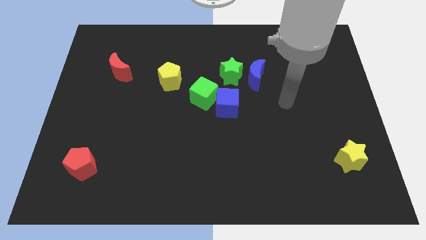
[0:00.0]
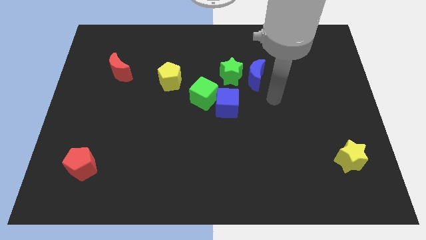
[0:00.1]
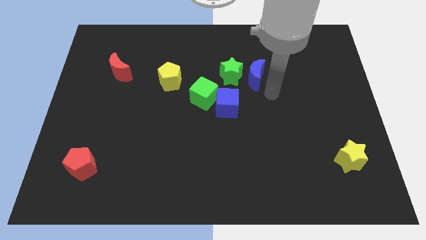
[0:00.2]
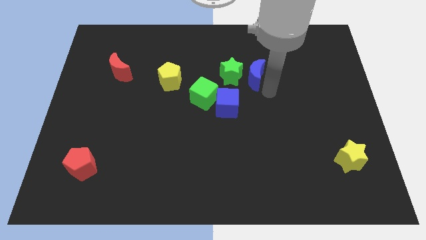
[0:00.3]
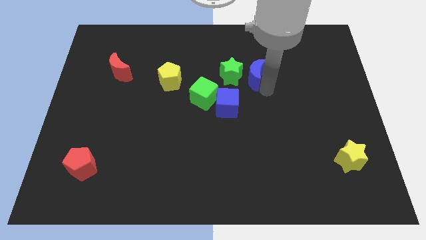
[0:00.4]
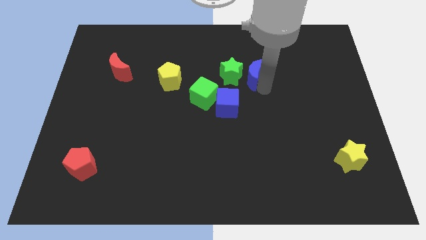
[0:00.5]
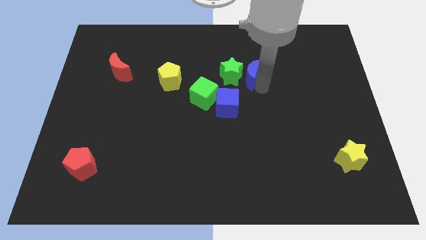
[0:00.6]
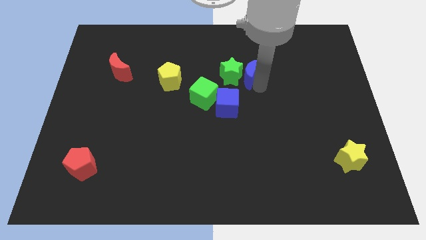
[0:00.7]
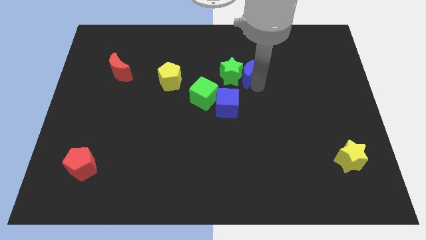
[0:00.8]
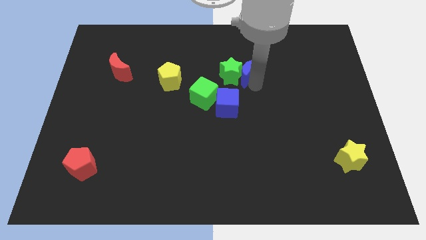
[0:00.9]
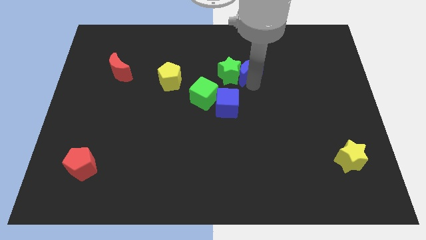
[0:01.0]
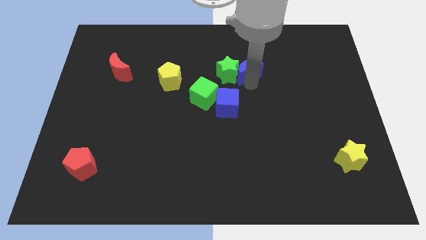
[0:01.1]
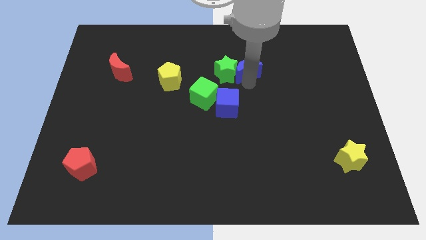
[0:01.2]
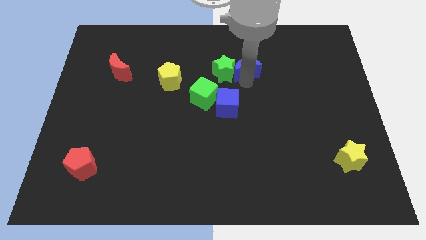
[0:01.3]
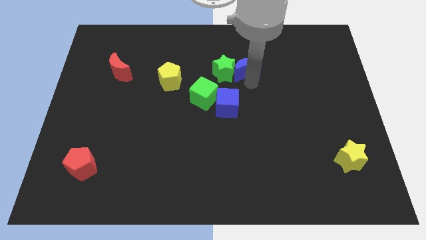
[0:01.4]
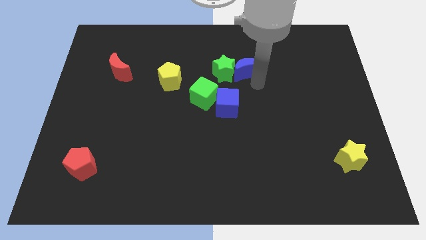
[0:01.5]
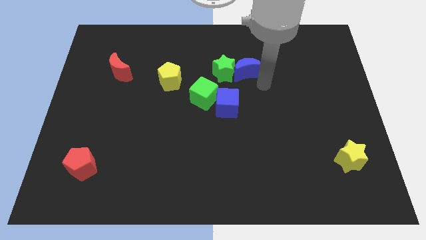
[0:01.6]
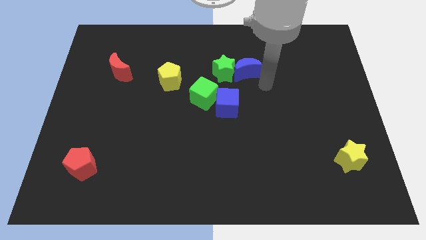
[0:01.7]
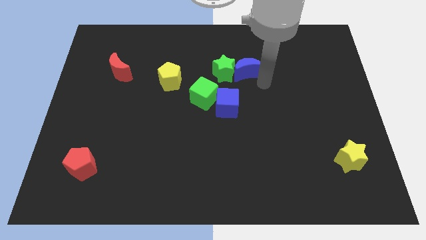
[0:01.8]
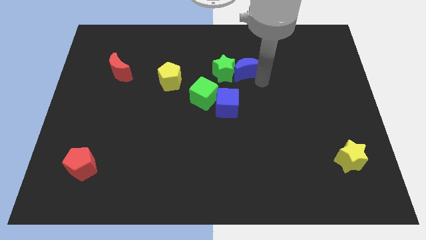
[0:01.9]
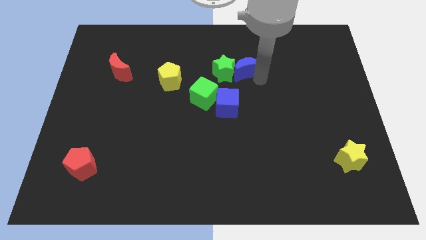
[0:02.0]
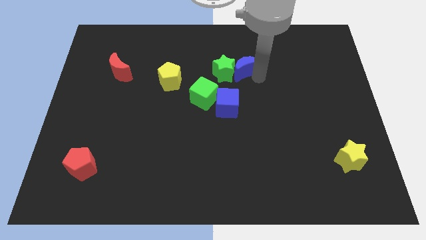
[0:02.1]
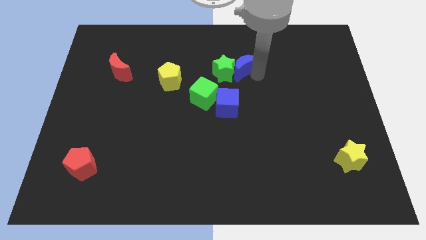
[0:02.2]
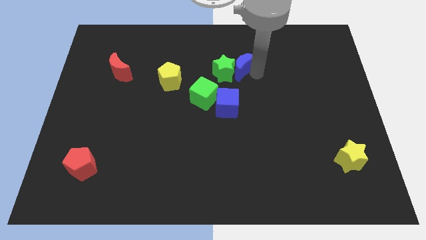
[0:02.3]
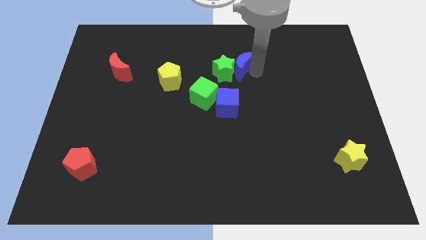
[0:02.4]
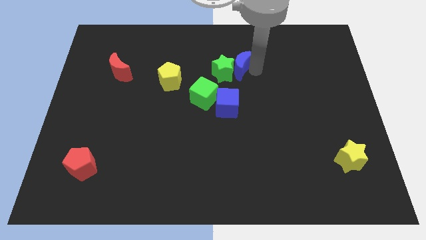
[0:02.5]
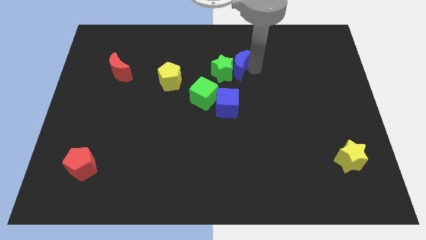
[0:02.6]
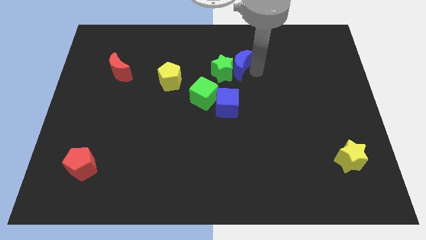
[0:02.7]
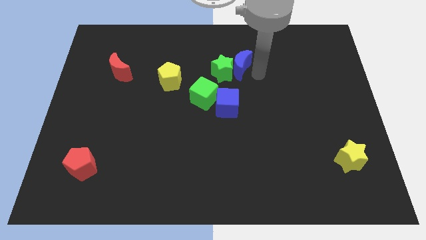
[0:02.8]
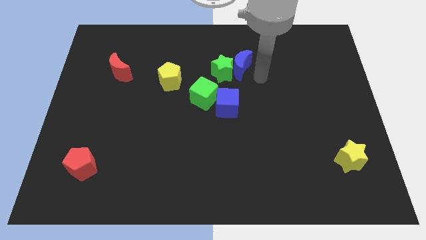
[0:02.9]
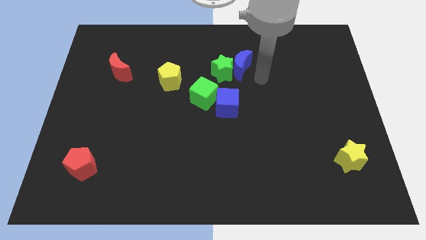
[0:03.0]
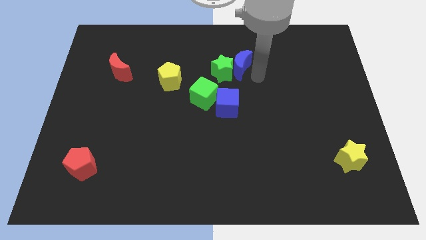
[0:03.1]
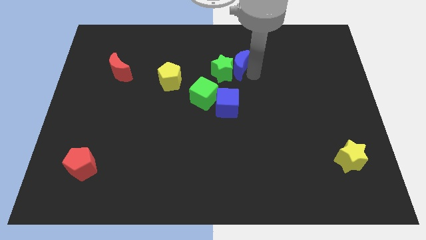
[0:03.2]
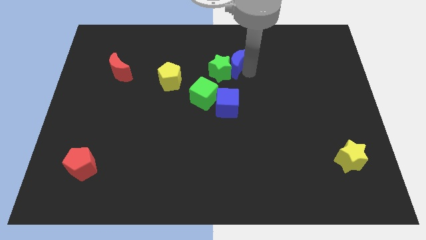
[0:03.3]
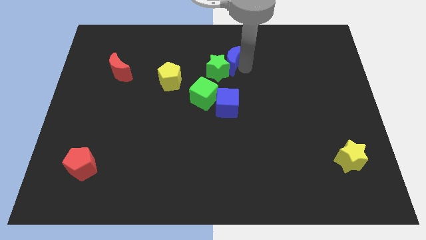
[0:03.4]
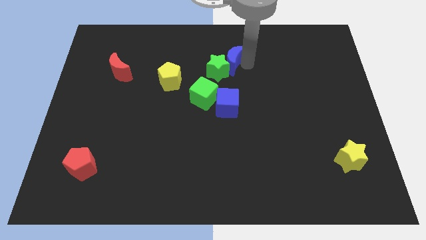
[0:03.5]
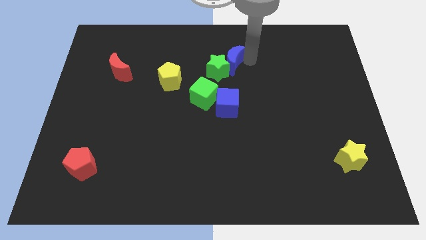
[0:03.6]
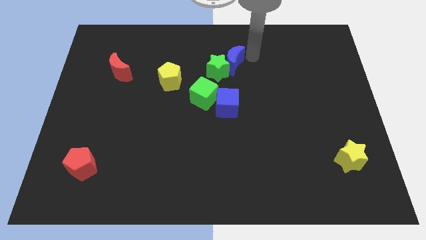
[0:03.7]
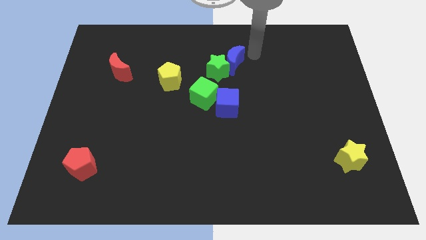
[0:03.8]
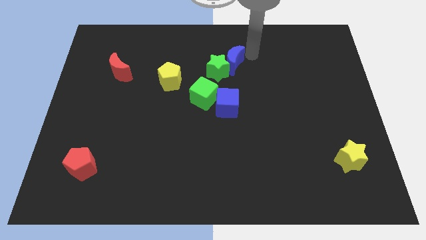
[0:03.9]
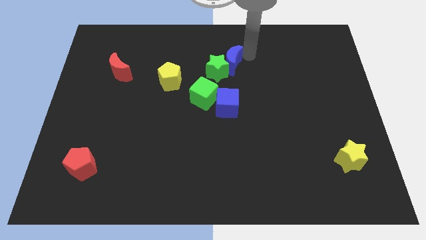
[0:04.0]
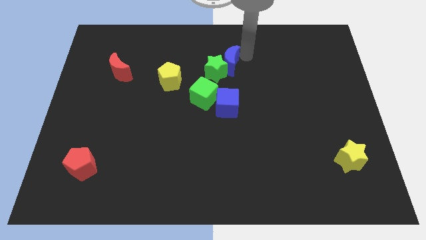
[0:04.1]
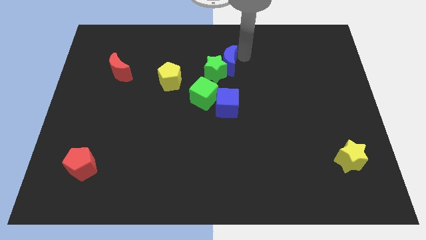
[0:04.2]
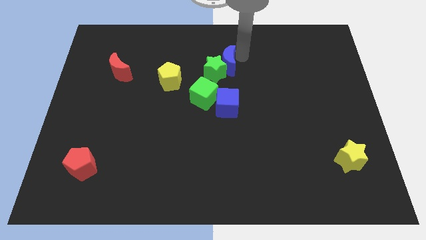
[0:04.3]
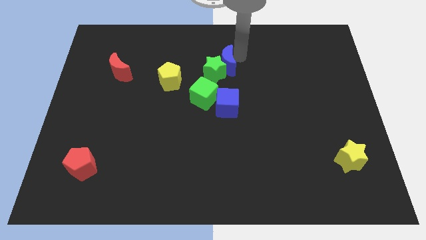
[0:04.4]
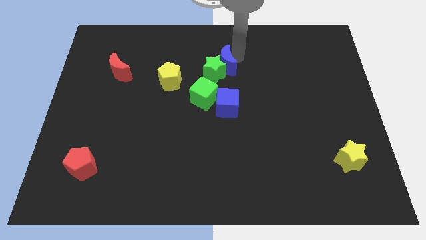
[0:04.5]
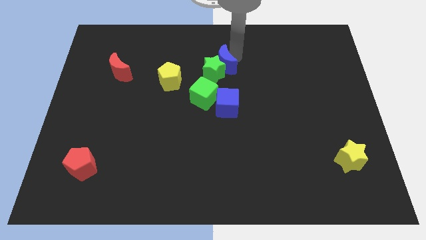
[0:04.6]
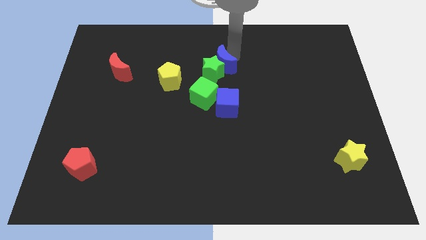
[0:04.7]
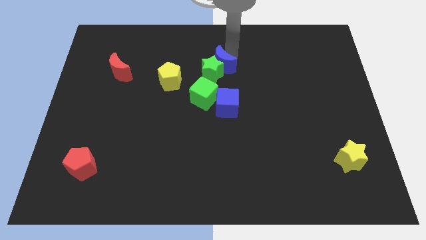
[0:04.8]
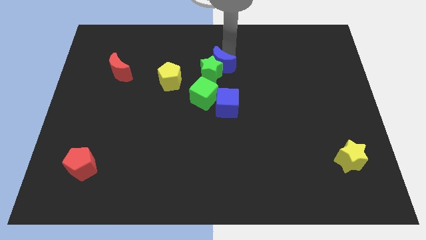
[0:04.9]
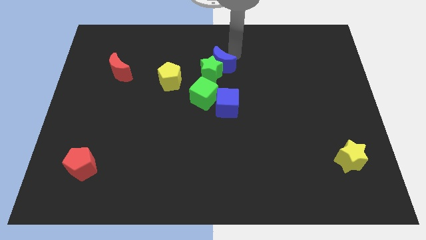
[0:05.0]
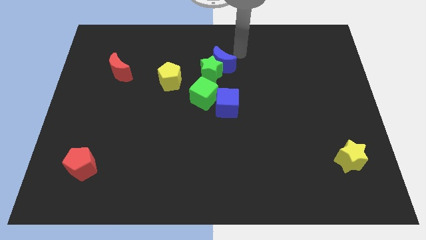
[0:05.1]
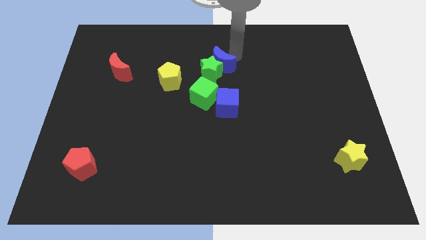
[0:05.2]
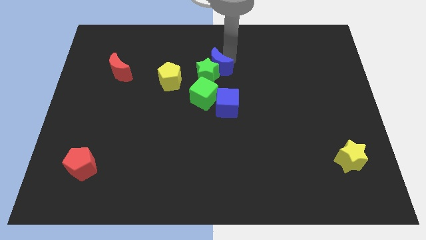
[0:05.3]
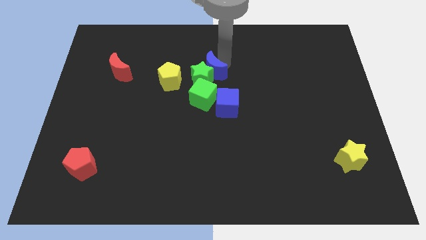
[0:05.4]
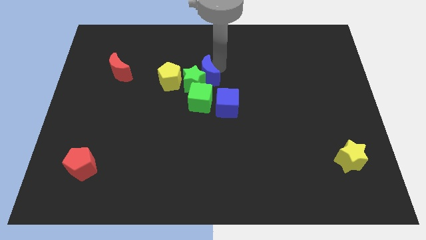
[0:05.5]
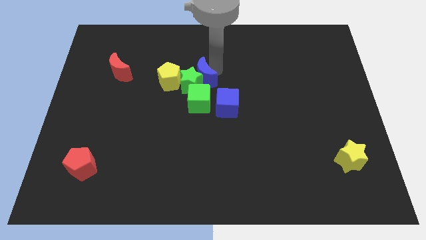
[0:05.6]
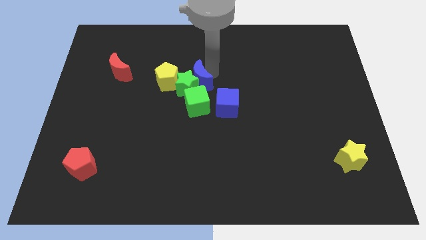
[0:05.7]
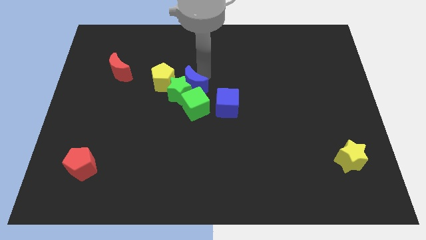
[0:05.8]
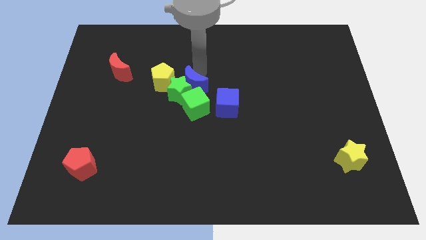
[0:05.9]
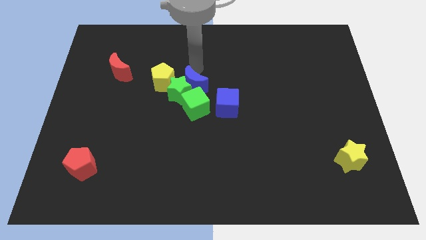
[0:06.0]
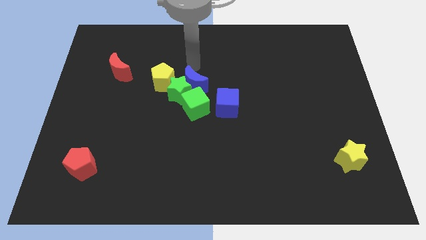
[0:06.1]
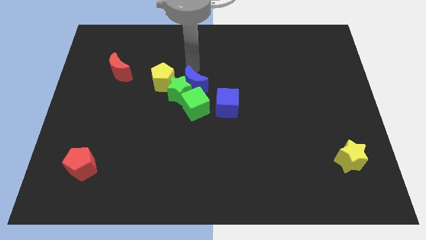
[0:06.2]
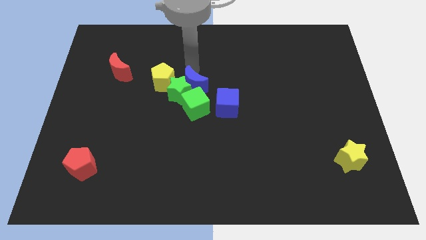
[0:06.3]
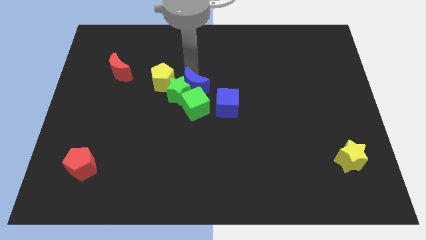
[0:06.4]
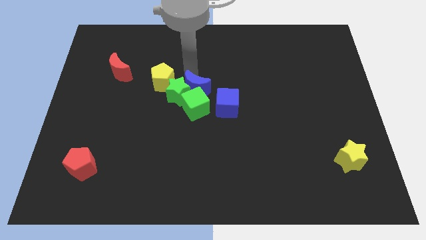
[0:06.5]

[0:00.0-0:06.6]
push the blue moon towards the green cube

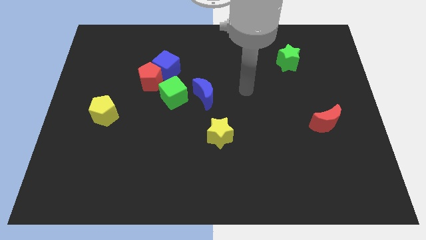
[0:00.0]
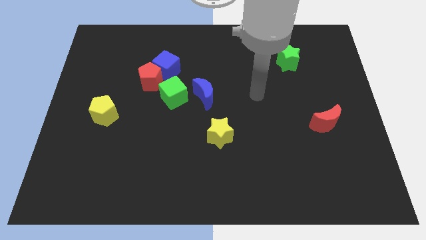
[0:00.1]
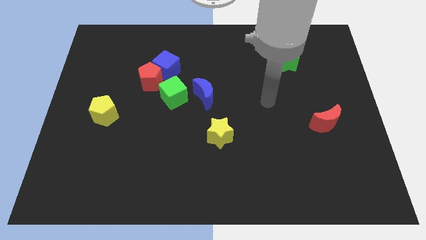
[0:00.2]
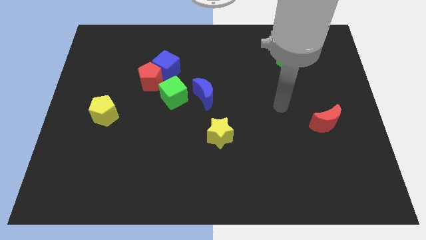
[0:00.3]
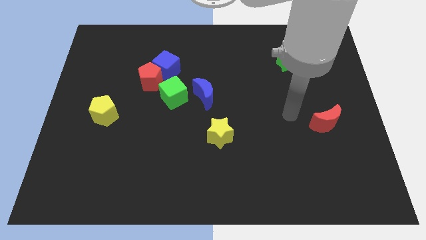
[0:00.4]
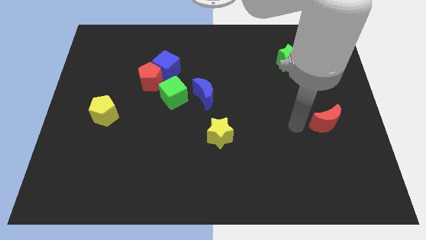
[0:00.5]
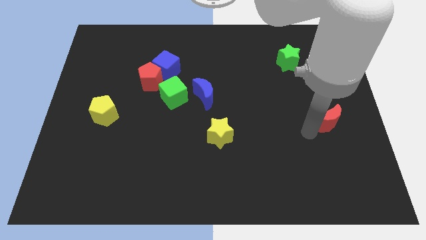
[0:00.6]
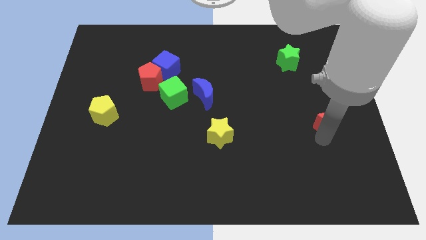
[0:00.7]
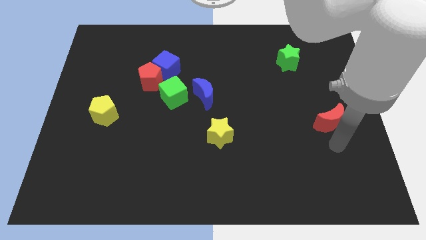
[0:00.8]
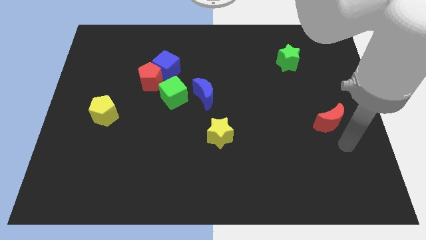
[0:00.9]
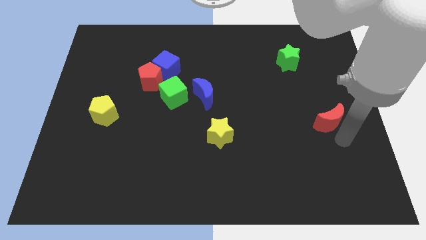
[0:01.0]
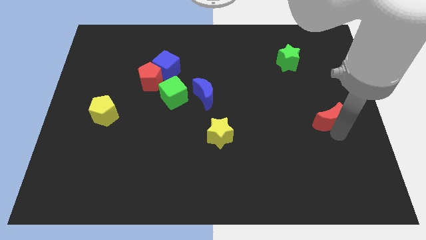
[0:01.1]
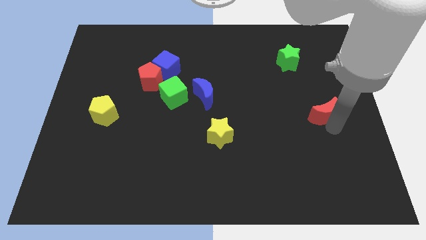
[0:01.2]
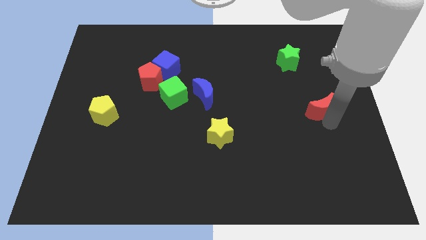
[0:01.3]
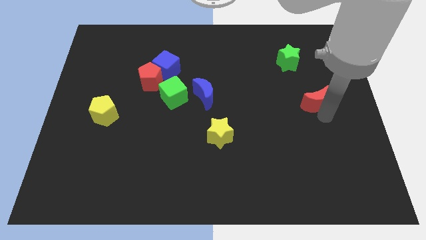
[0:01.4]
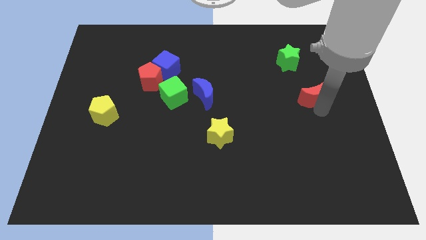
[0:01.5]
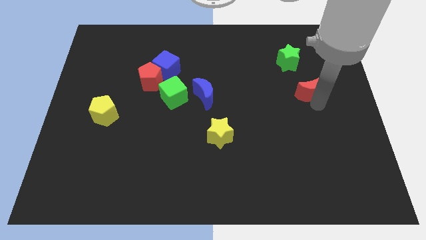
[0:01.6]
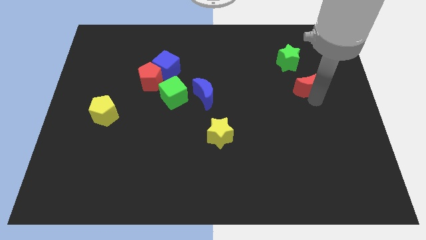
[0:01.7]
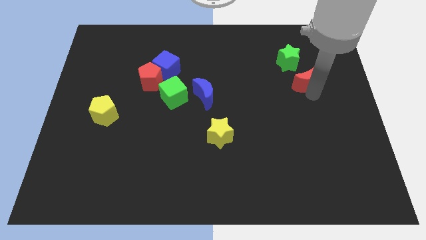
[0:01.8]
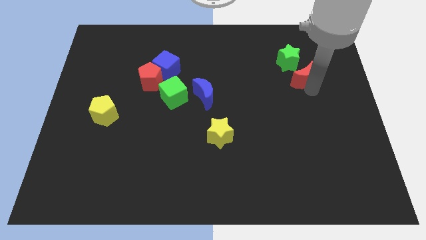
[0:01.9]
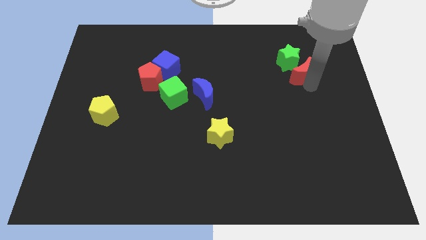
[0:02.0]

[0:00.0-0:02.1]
put the red moon to the green star
